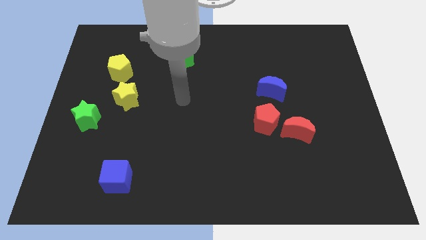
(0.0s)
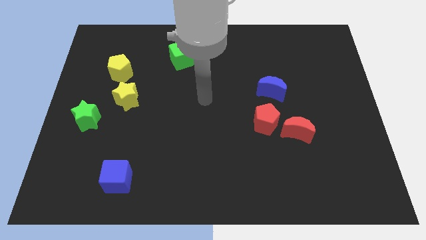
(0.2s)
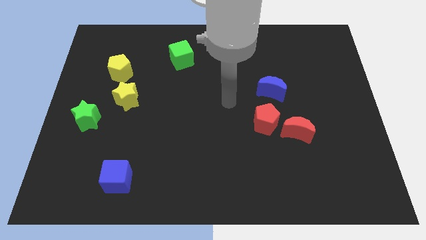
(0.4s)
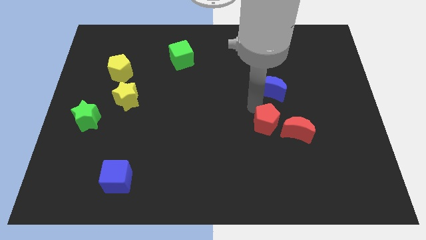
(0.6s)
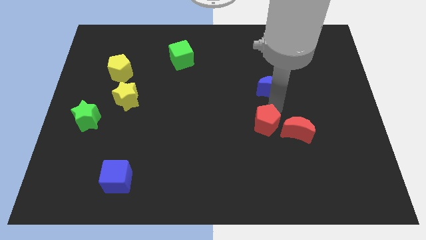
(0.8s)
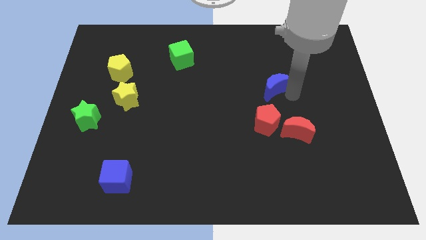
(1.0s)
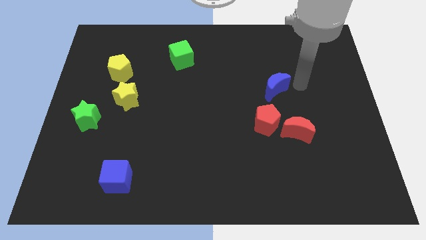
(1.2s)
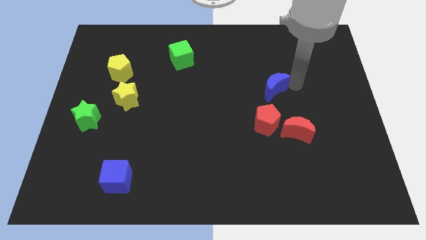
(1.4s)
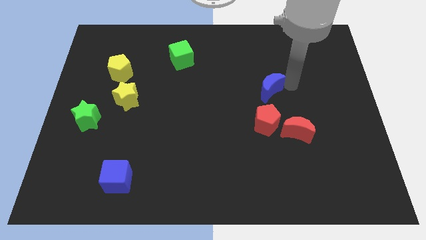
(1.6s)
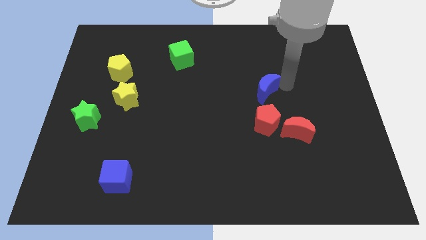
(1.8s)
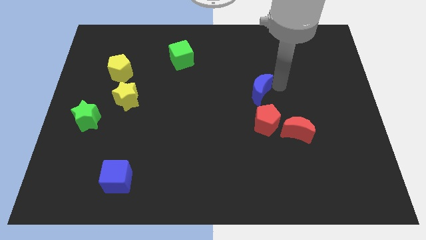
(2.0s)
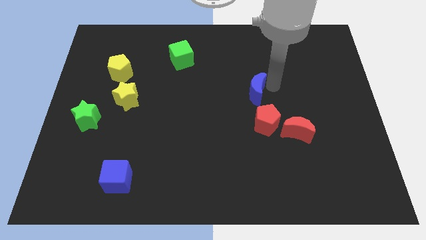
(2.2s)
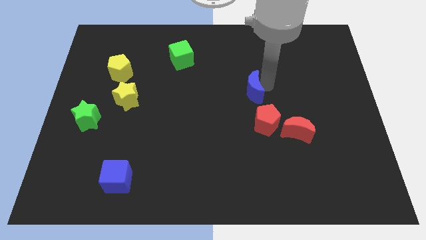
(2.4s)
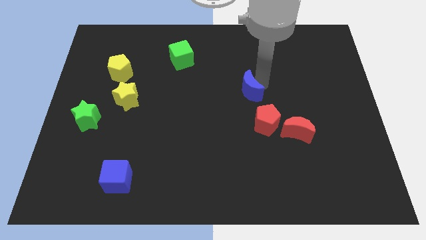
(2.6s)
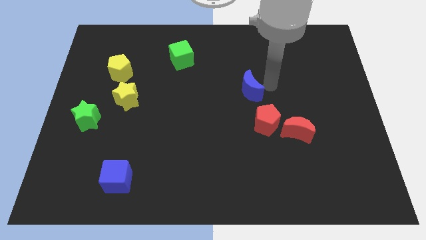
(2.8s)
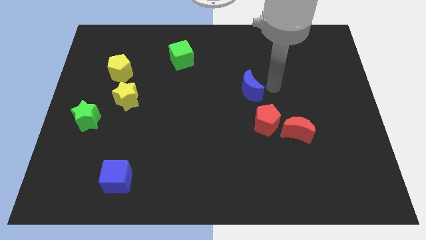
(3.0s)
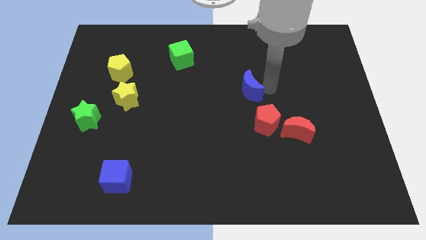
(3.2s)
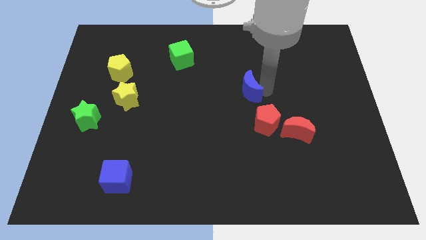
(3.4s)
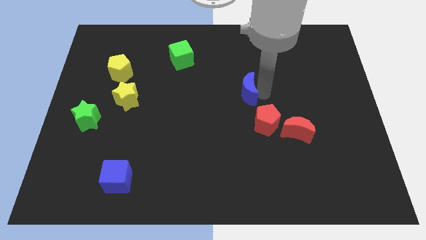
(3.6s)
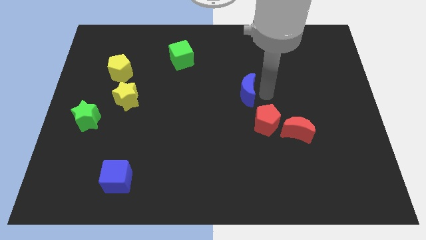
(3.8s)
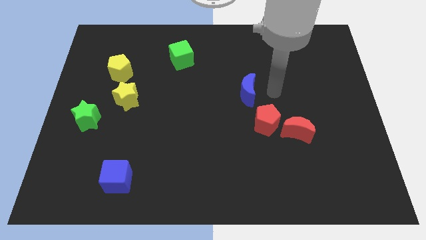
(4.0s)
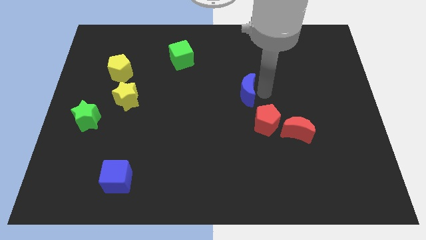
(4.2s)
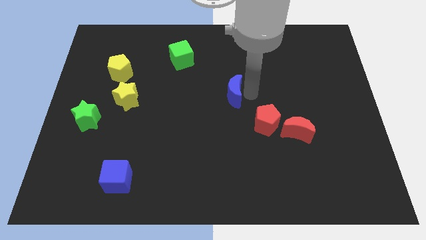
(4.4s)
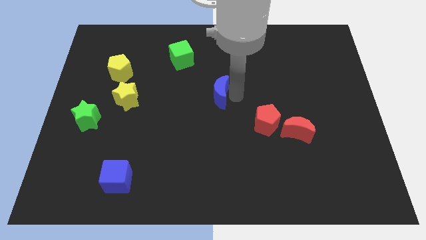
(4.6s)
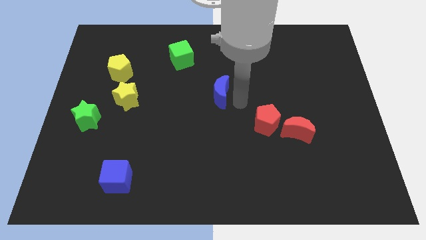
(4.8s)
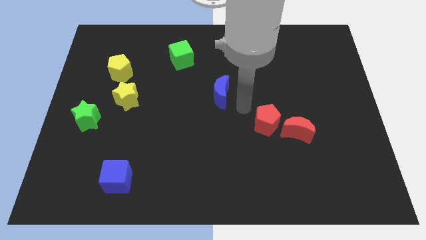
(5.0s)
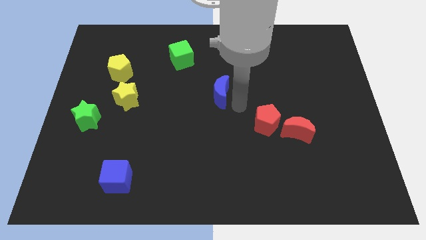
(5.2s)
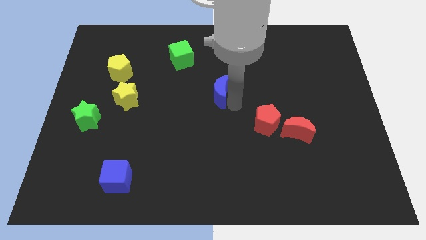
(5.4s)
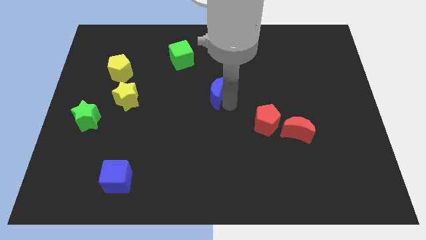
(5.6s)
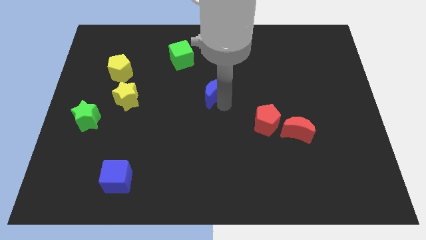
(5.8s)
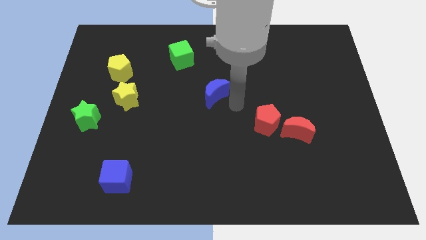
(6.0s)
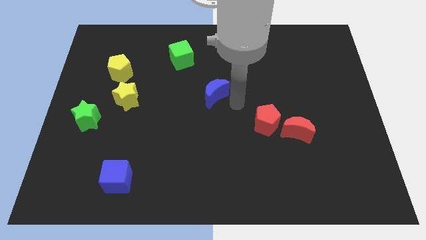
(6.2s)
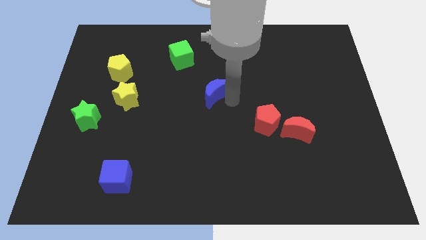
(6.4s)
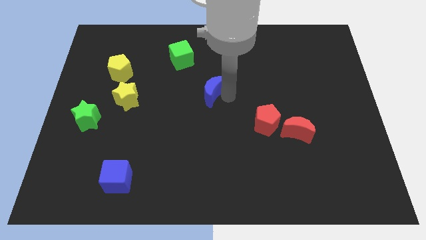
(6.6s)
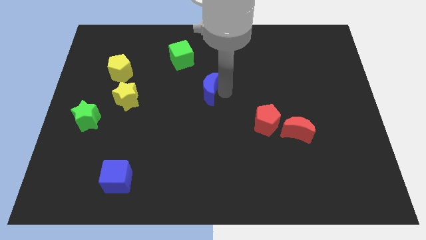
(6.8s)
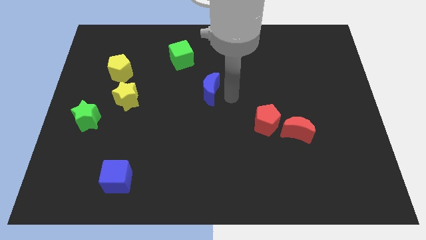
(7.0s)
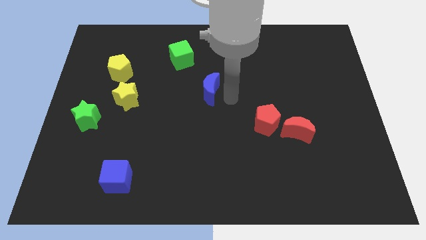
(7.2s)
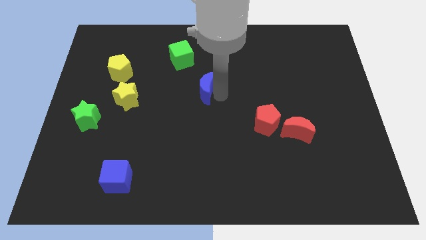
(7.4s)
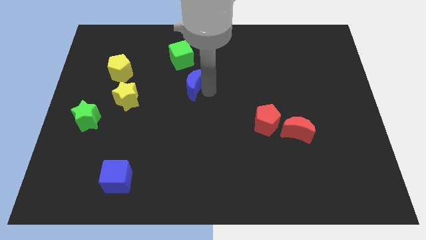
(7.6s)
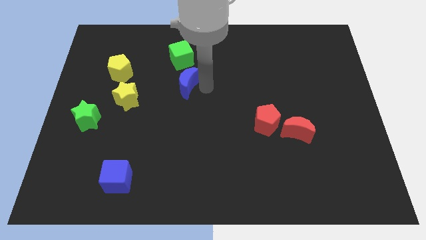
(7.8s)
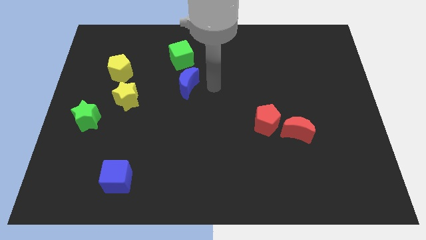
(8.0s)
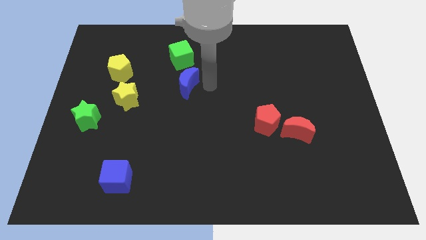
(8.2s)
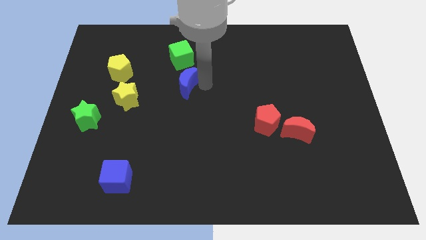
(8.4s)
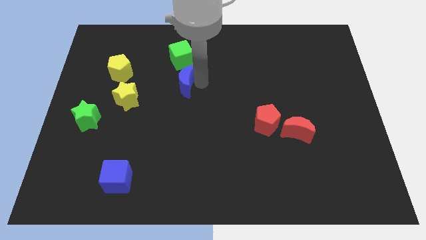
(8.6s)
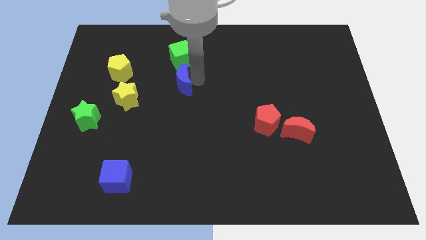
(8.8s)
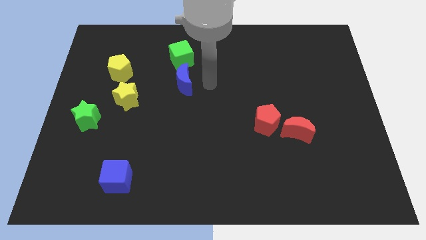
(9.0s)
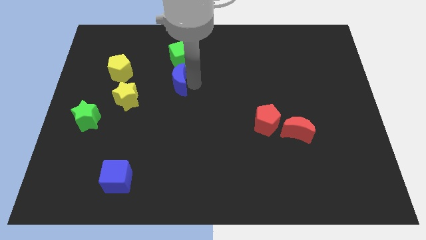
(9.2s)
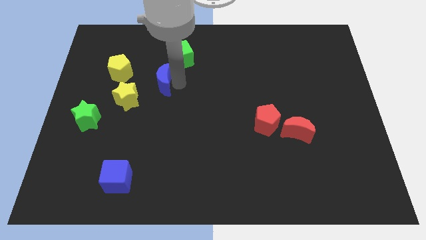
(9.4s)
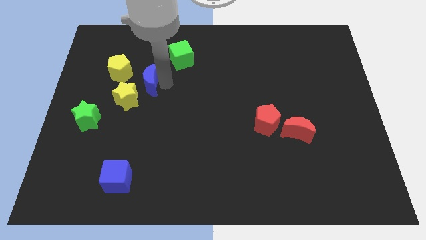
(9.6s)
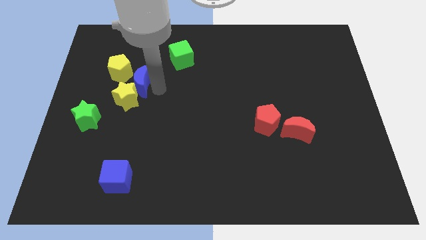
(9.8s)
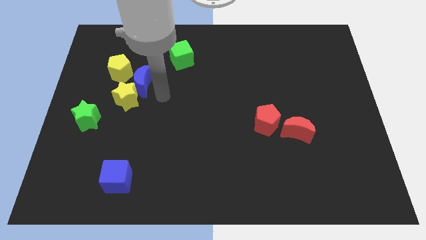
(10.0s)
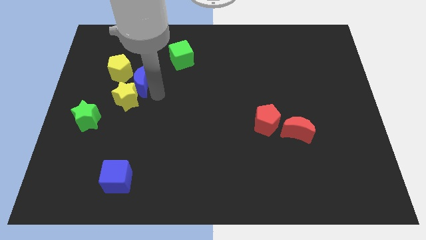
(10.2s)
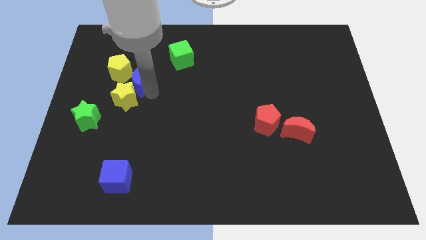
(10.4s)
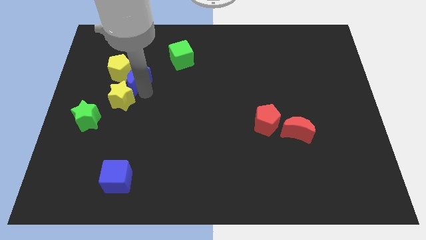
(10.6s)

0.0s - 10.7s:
move the blue moon towards the yellow pentagon

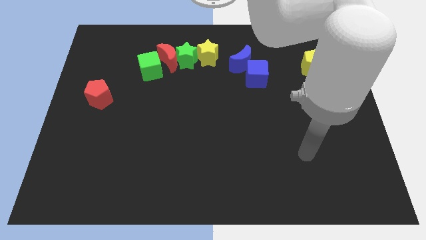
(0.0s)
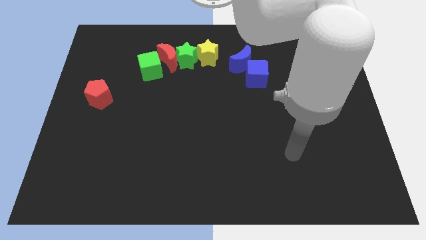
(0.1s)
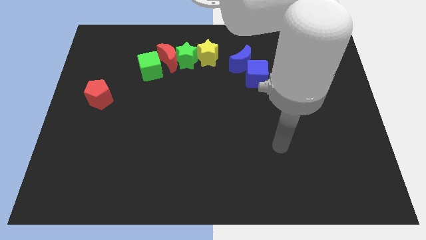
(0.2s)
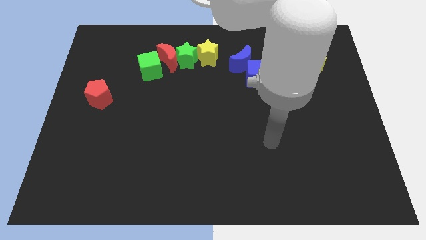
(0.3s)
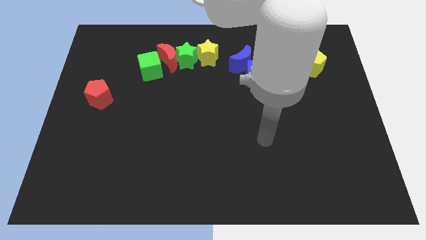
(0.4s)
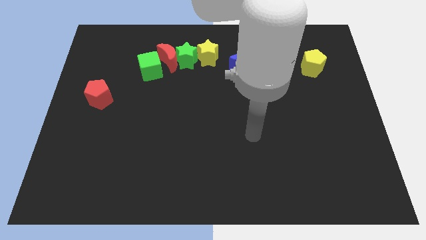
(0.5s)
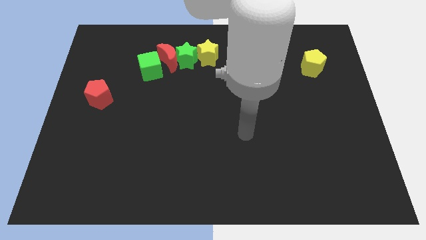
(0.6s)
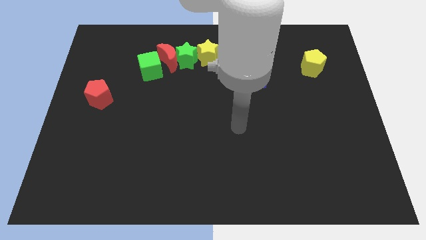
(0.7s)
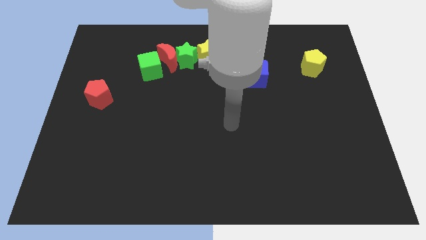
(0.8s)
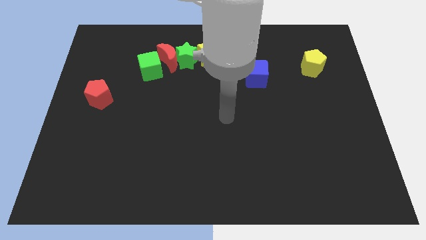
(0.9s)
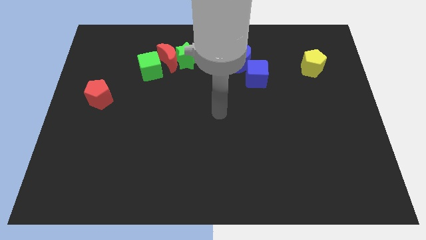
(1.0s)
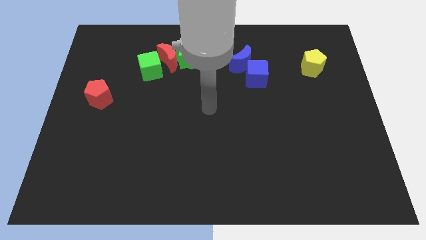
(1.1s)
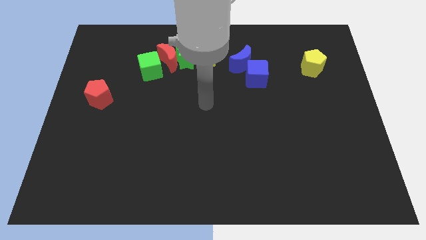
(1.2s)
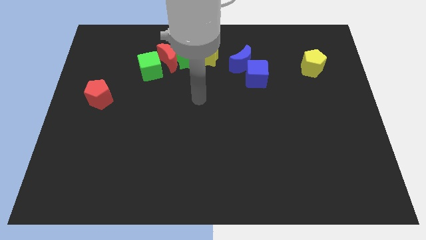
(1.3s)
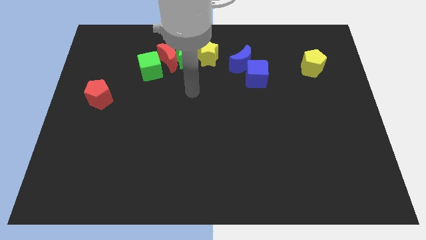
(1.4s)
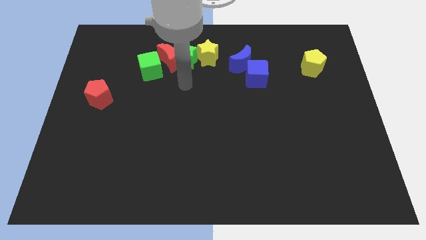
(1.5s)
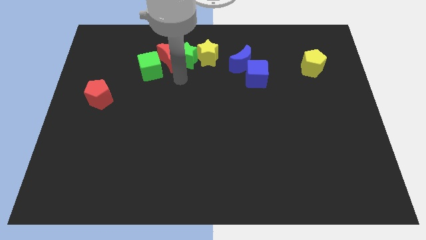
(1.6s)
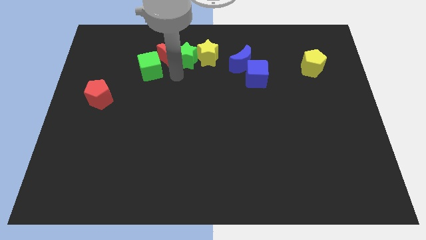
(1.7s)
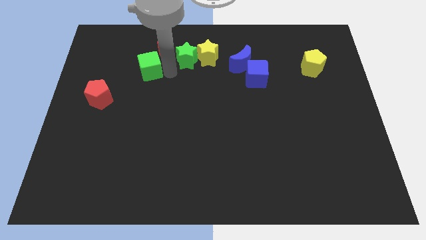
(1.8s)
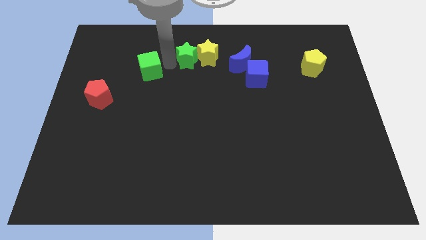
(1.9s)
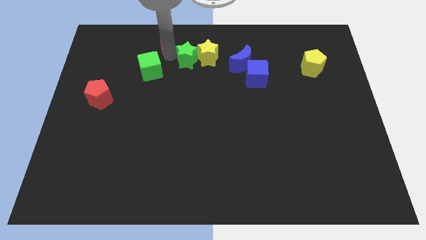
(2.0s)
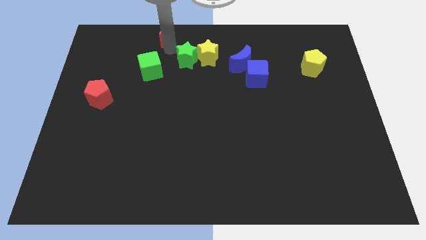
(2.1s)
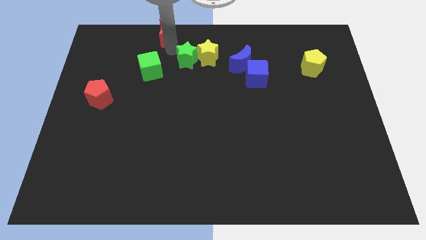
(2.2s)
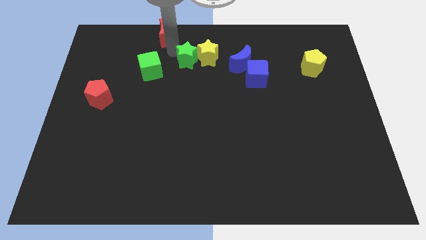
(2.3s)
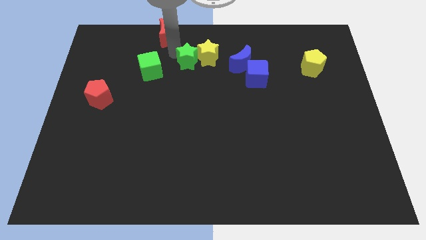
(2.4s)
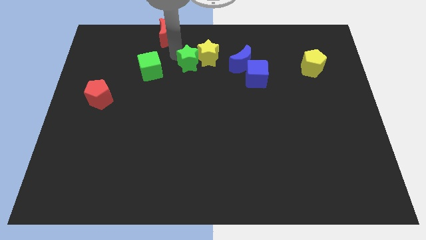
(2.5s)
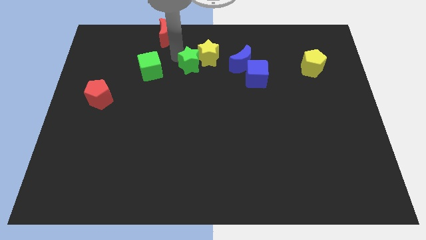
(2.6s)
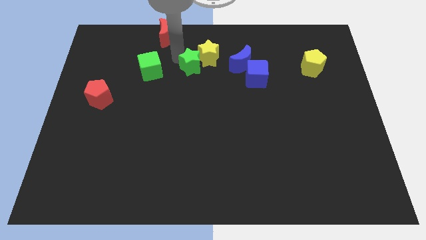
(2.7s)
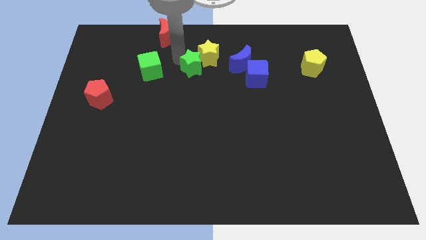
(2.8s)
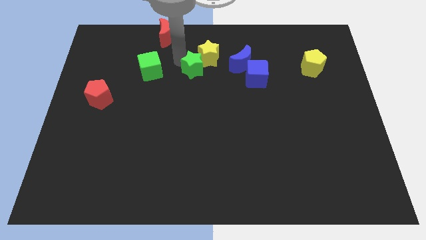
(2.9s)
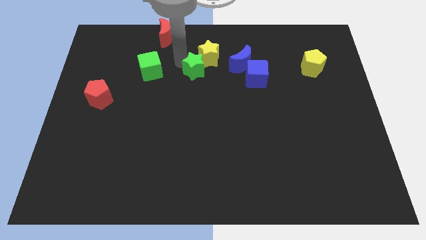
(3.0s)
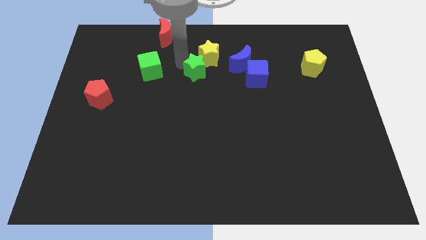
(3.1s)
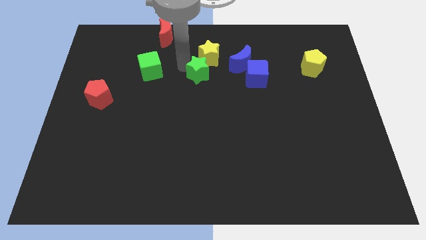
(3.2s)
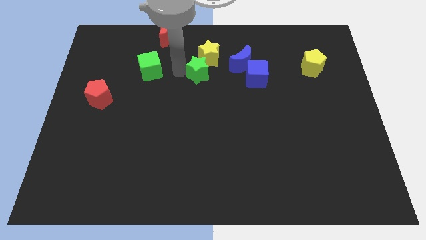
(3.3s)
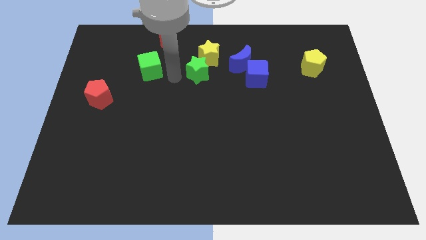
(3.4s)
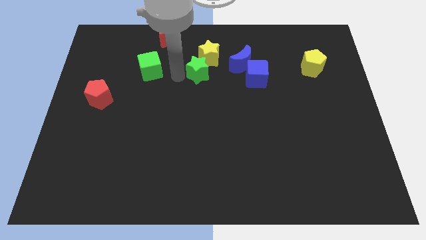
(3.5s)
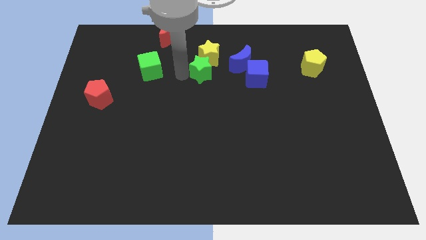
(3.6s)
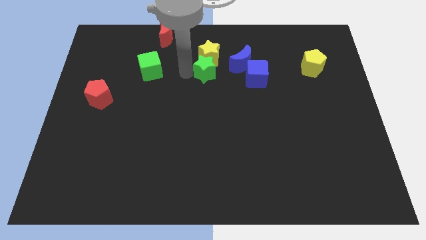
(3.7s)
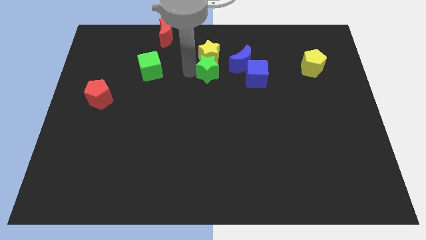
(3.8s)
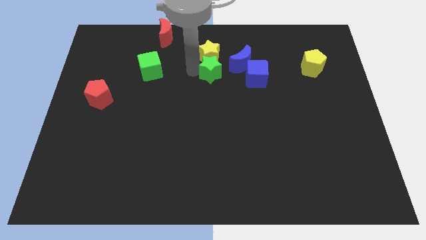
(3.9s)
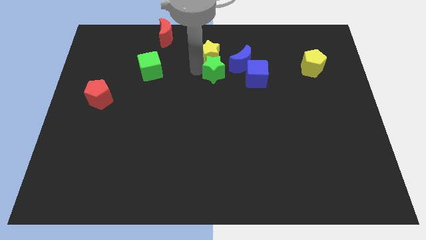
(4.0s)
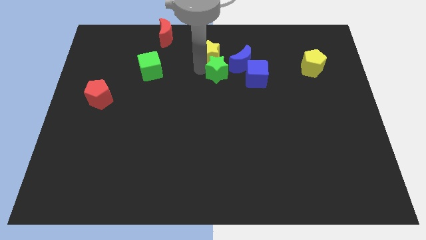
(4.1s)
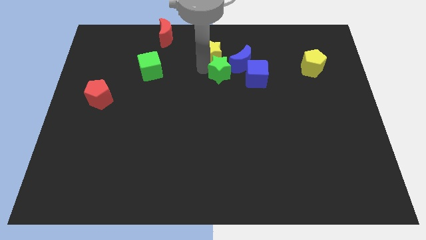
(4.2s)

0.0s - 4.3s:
push the green star towards the blue moon
